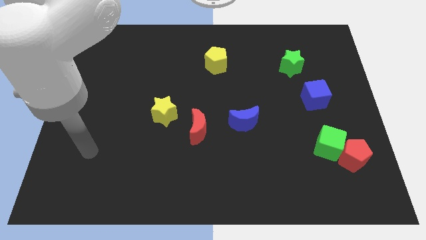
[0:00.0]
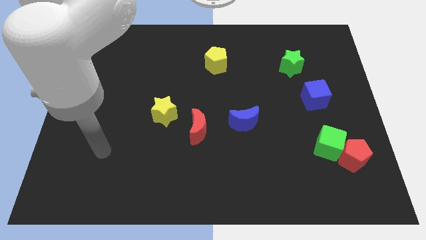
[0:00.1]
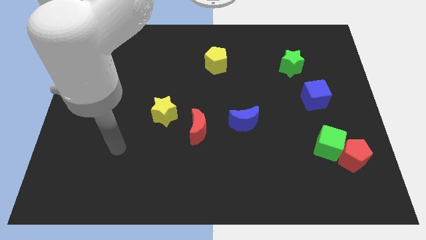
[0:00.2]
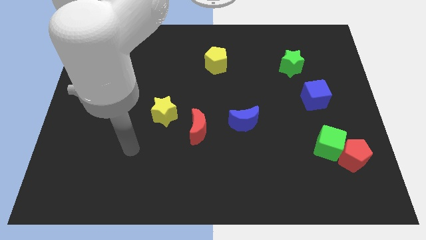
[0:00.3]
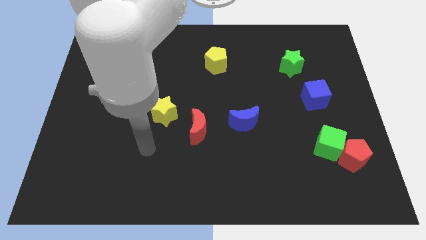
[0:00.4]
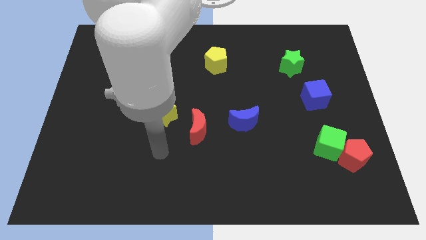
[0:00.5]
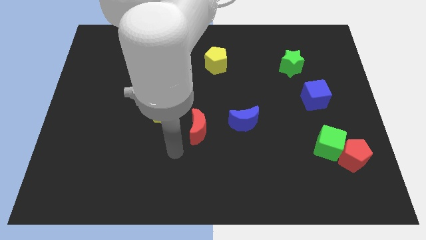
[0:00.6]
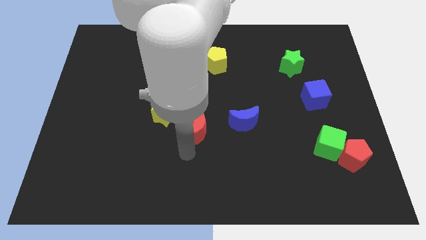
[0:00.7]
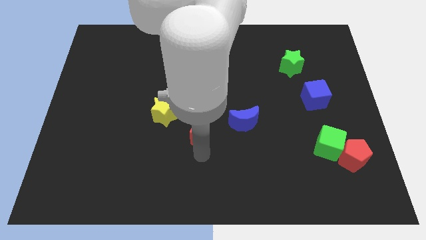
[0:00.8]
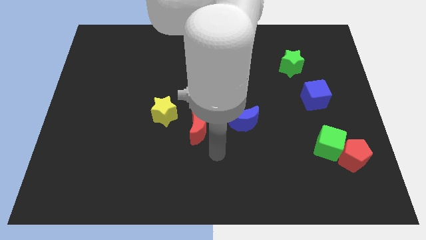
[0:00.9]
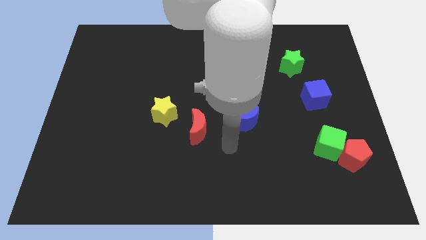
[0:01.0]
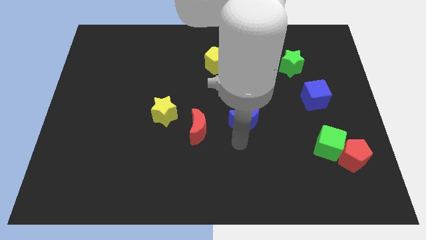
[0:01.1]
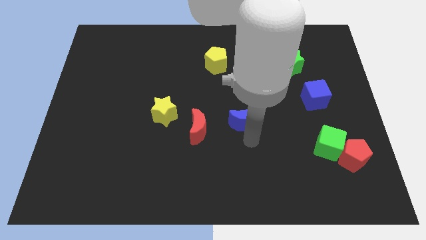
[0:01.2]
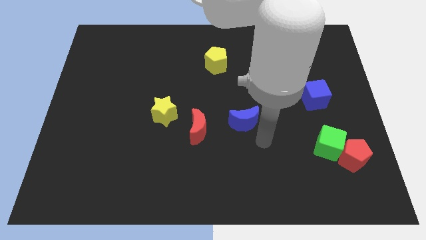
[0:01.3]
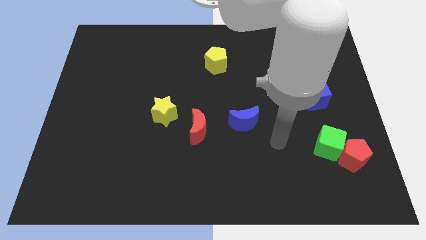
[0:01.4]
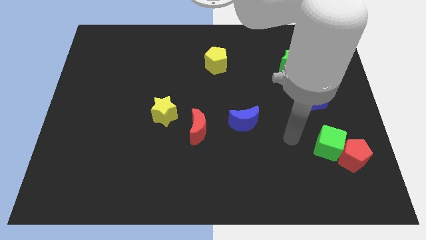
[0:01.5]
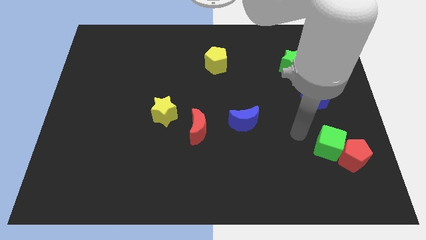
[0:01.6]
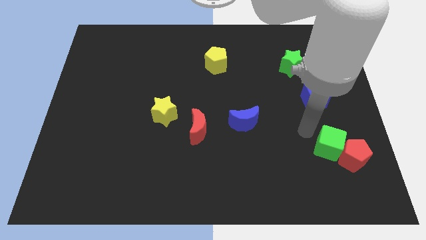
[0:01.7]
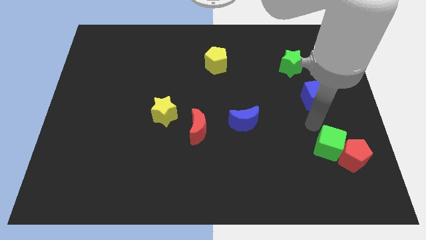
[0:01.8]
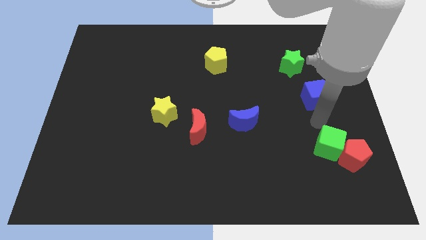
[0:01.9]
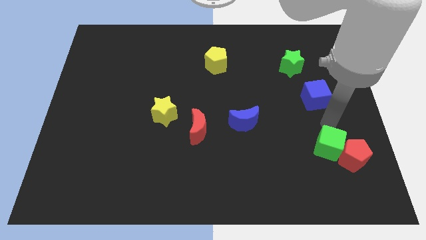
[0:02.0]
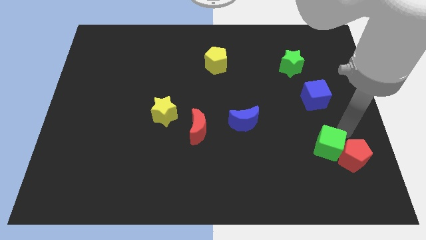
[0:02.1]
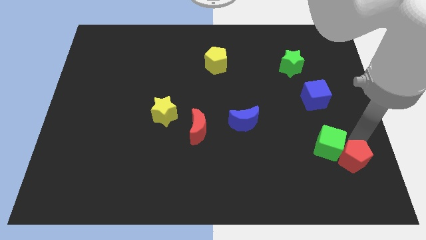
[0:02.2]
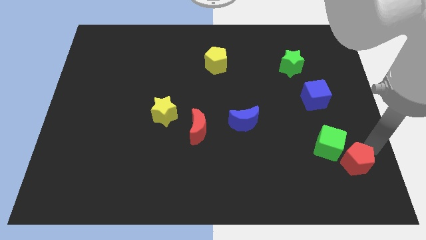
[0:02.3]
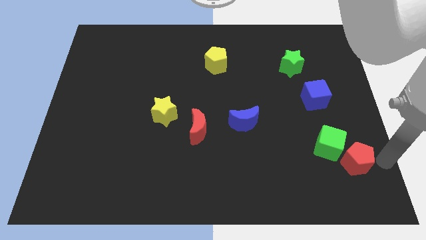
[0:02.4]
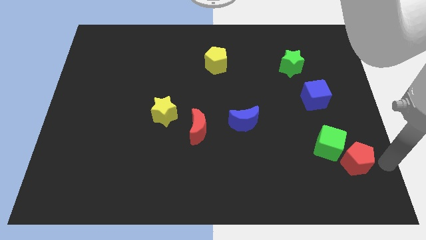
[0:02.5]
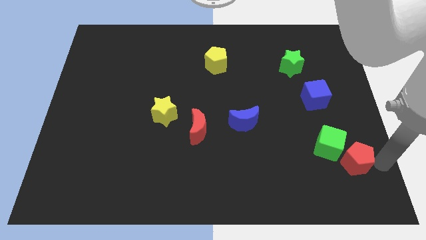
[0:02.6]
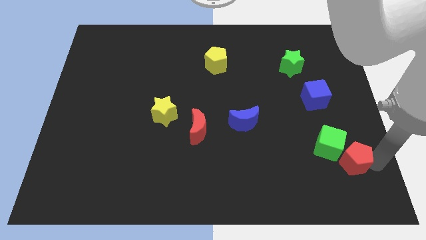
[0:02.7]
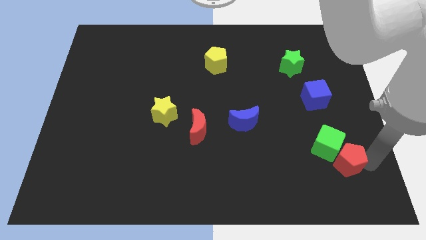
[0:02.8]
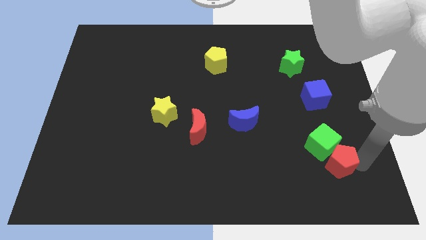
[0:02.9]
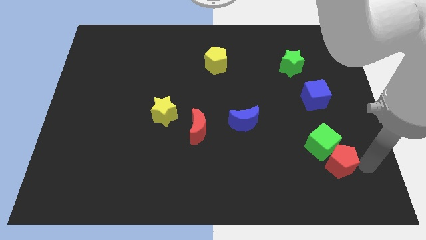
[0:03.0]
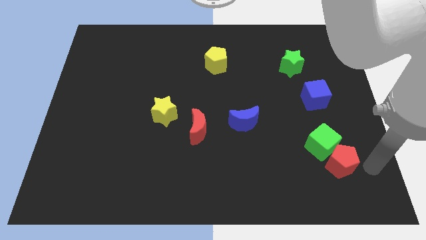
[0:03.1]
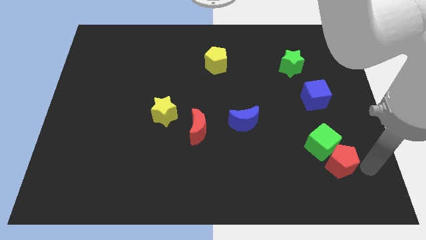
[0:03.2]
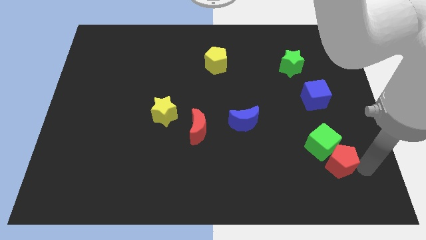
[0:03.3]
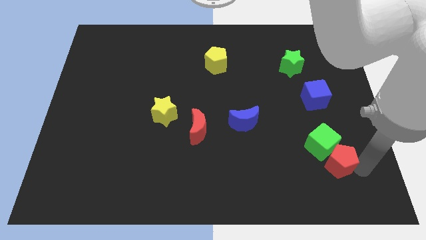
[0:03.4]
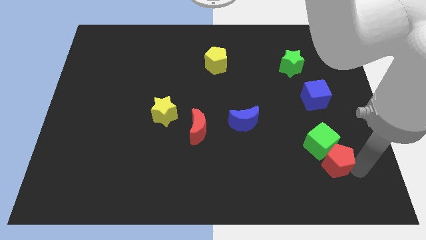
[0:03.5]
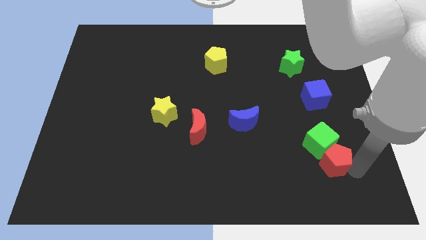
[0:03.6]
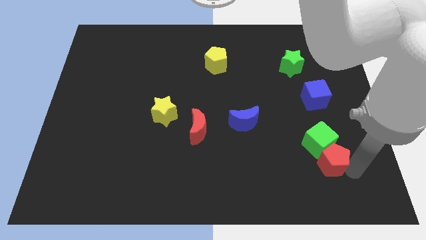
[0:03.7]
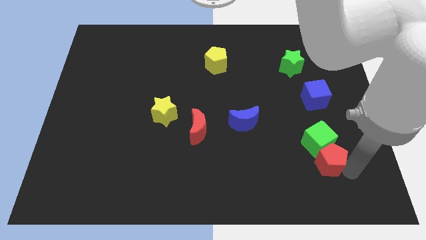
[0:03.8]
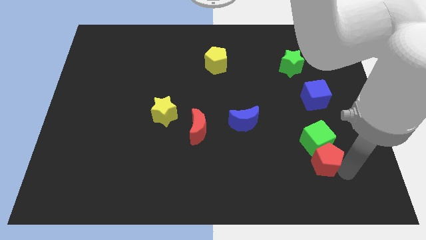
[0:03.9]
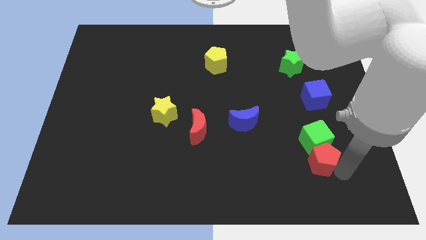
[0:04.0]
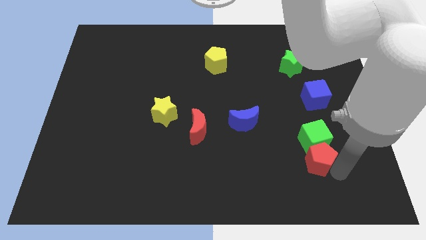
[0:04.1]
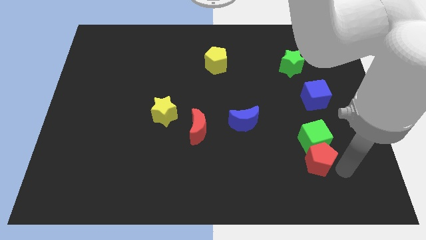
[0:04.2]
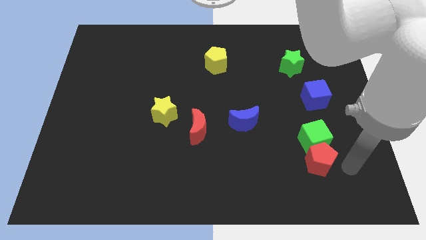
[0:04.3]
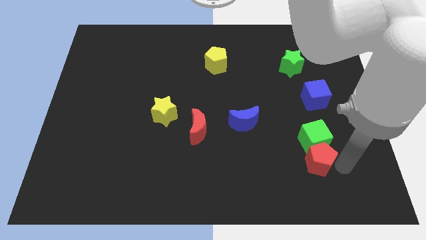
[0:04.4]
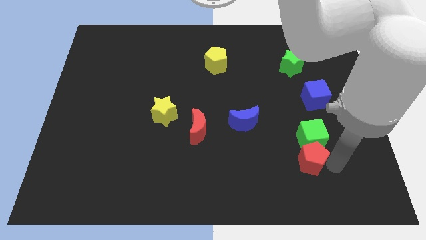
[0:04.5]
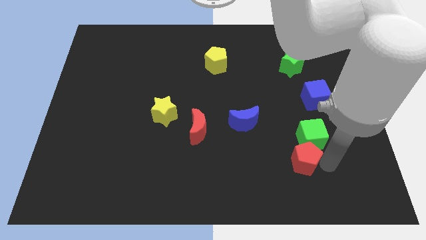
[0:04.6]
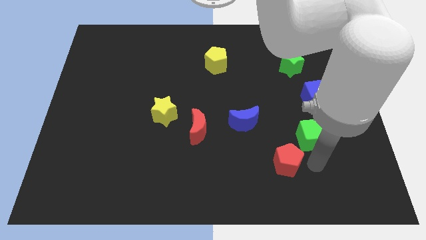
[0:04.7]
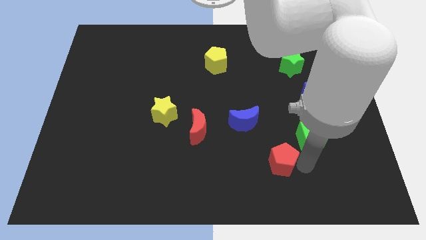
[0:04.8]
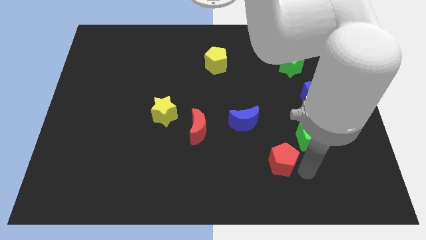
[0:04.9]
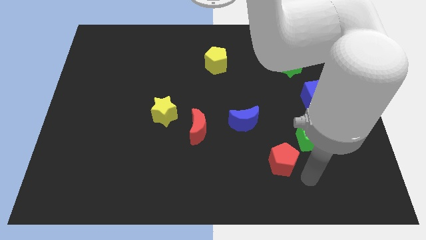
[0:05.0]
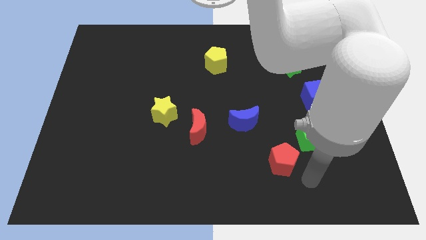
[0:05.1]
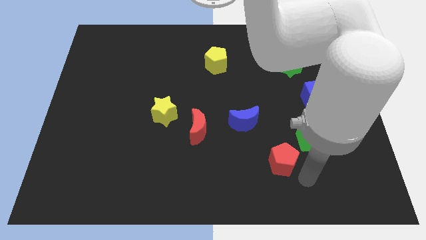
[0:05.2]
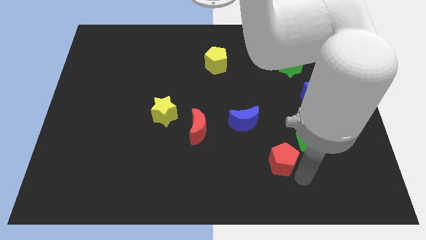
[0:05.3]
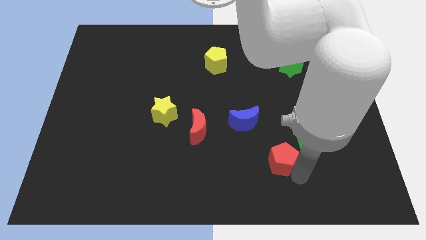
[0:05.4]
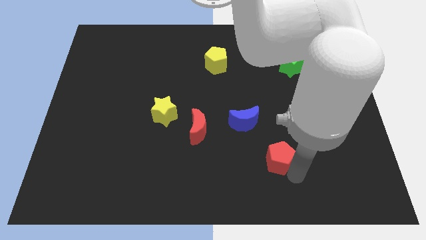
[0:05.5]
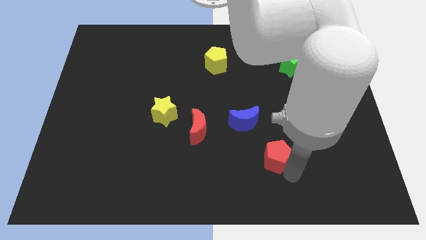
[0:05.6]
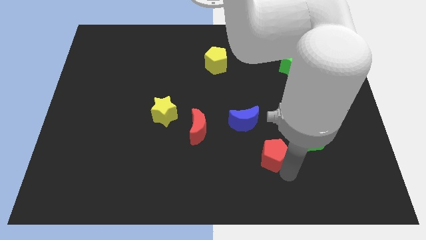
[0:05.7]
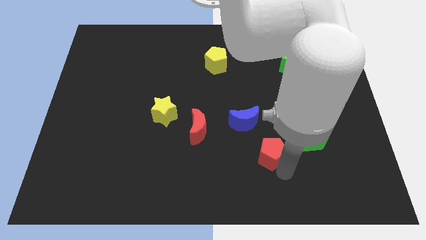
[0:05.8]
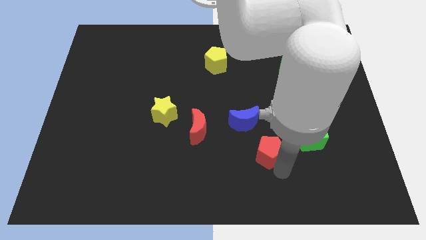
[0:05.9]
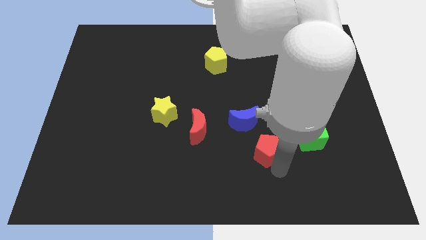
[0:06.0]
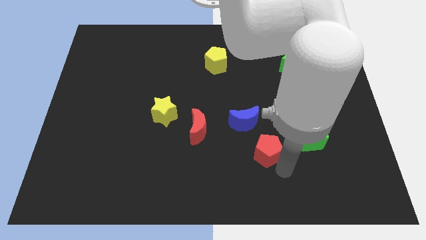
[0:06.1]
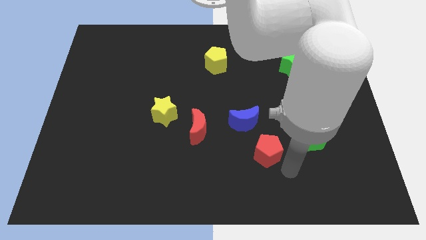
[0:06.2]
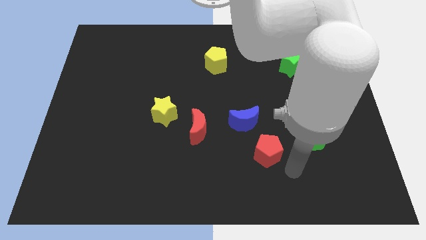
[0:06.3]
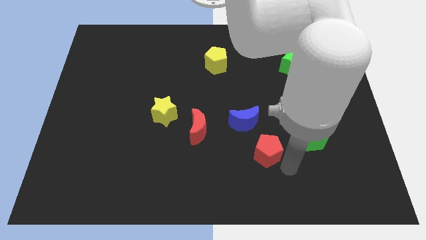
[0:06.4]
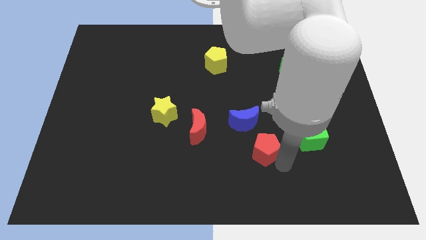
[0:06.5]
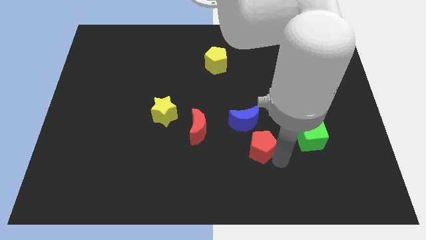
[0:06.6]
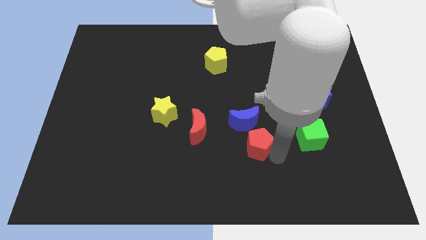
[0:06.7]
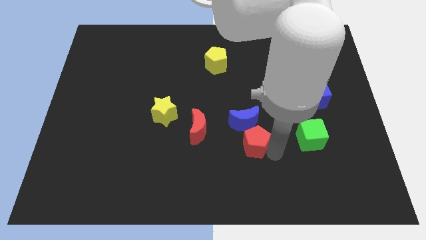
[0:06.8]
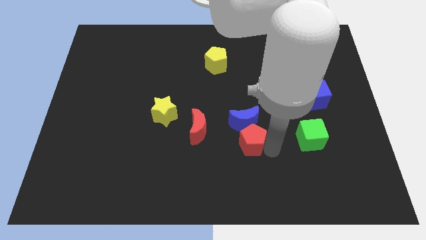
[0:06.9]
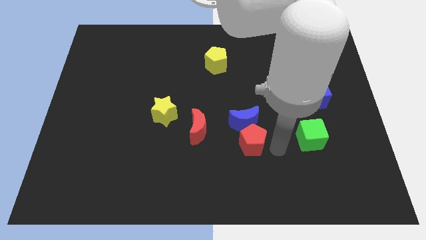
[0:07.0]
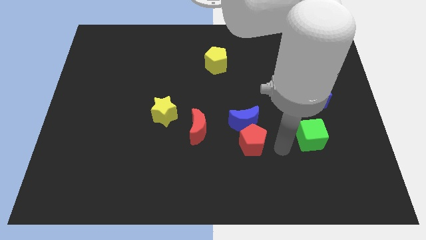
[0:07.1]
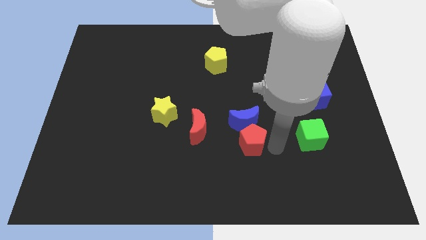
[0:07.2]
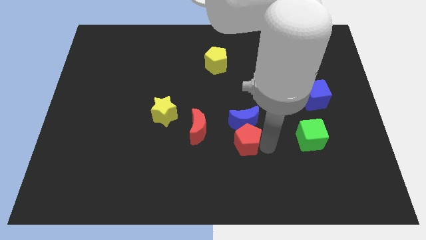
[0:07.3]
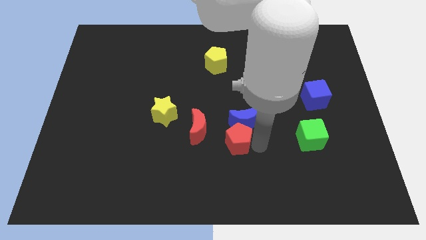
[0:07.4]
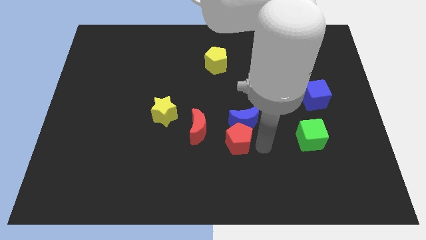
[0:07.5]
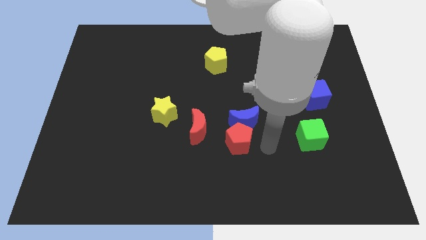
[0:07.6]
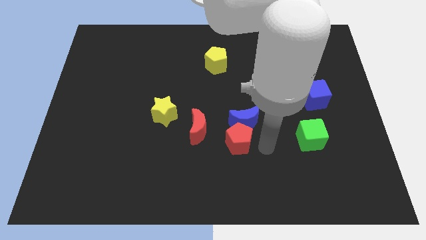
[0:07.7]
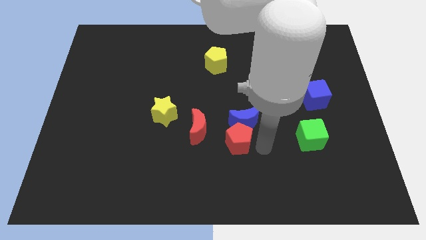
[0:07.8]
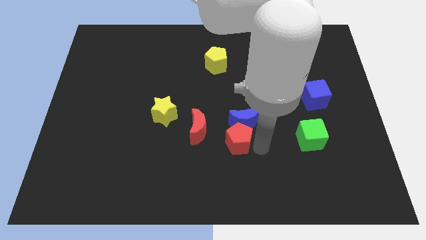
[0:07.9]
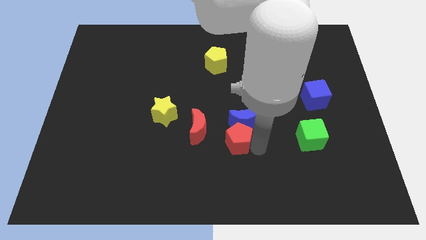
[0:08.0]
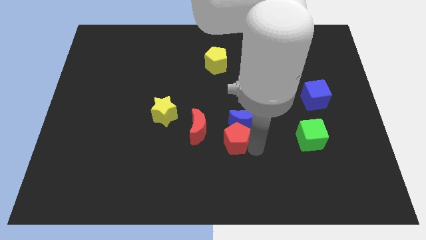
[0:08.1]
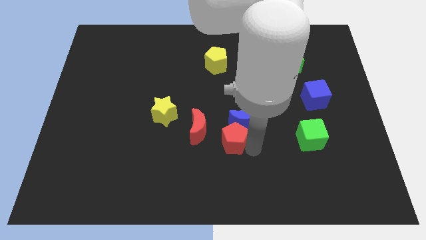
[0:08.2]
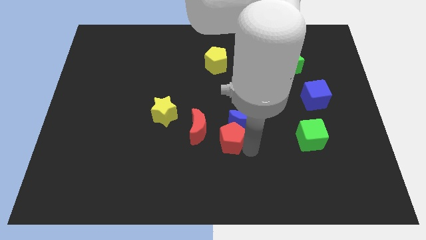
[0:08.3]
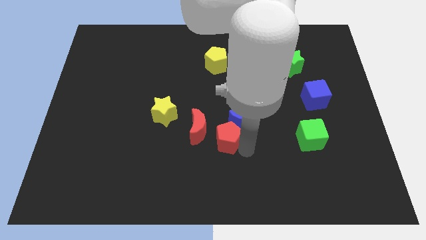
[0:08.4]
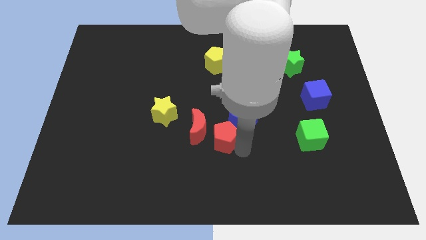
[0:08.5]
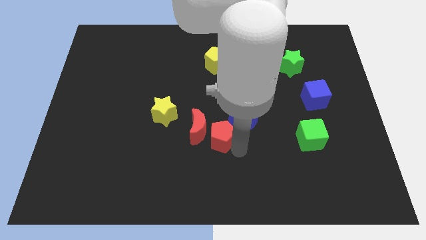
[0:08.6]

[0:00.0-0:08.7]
move the red pentagon towards the red moon

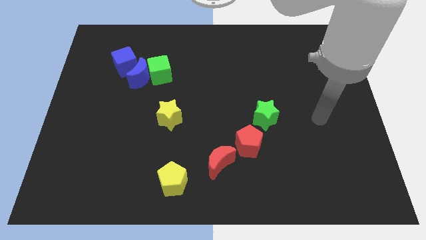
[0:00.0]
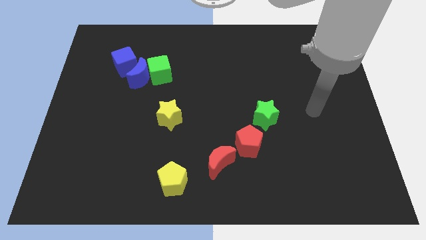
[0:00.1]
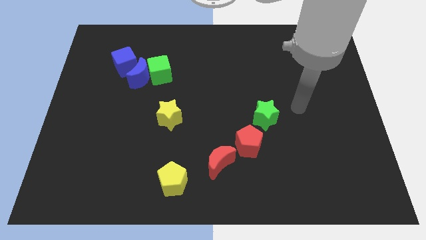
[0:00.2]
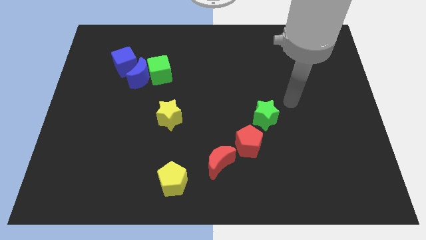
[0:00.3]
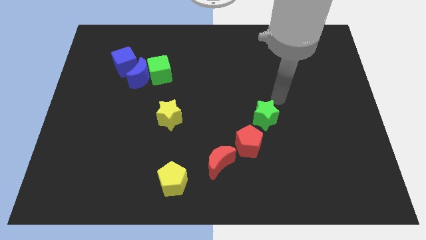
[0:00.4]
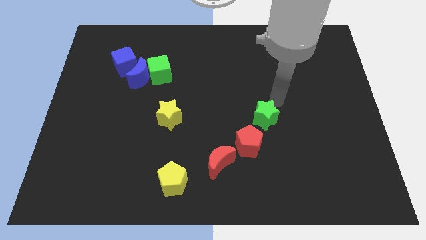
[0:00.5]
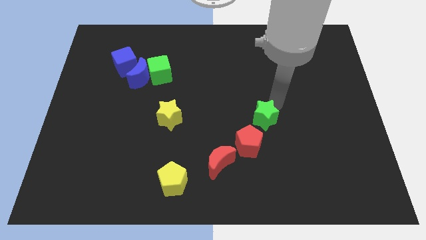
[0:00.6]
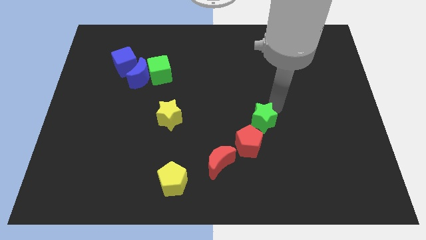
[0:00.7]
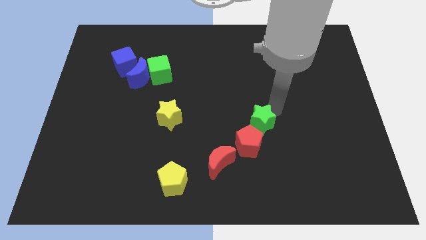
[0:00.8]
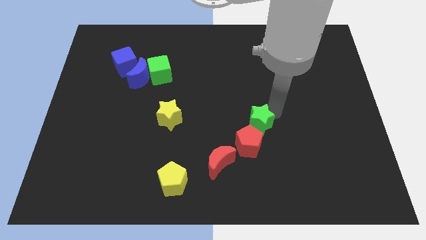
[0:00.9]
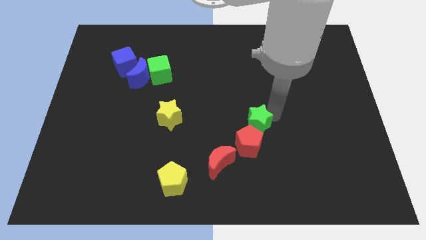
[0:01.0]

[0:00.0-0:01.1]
slide the green star to the red pentagon
